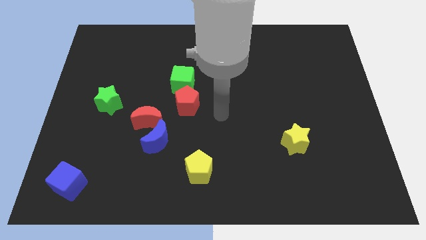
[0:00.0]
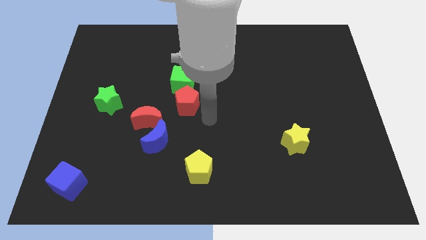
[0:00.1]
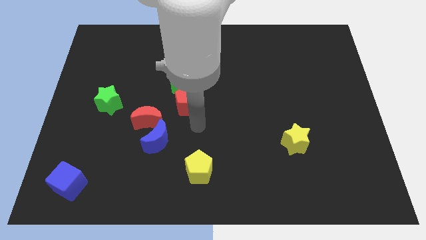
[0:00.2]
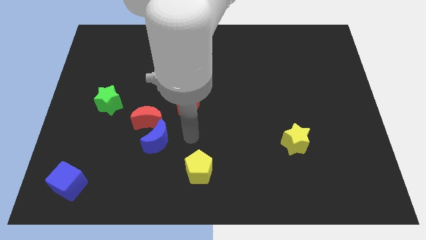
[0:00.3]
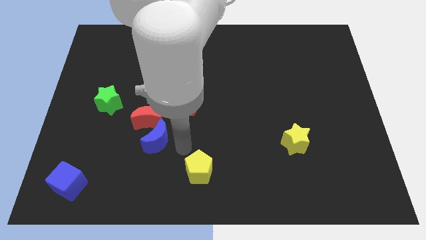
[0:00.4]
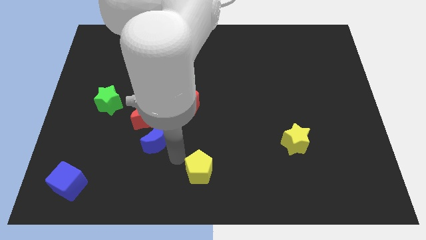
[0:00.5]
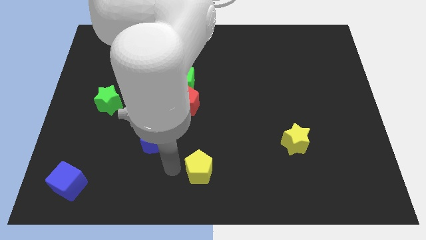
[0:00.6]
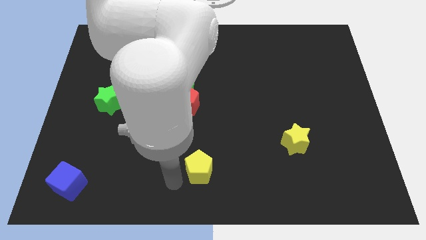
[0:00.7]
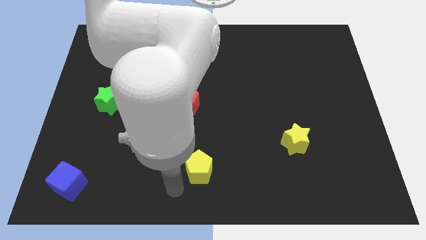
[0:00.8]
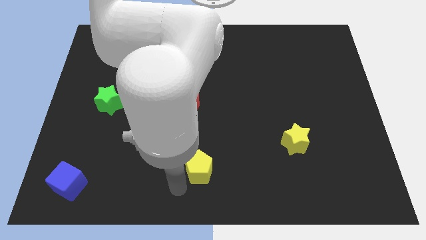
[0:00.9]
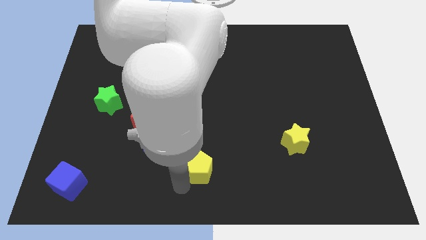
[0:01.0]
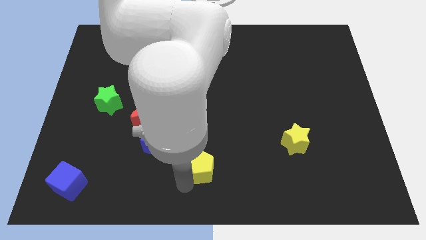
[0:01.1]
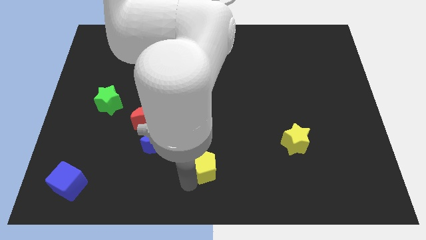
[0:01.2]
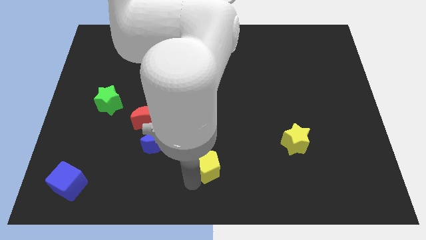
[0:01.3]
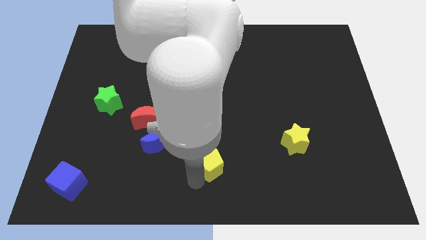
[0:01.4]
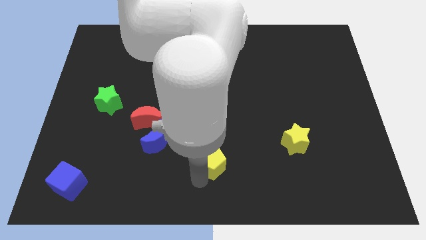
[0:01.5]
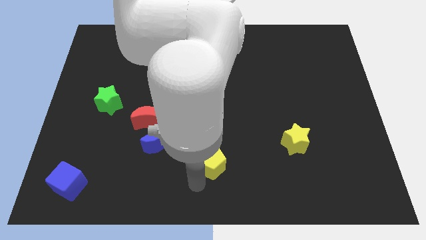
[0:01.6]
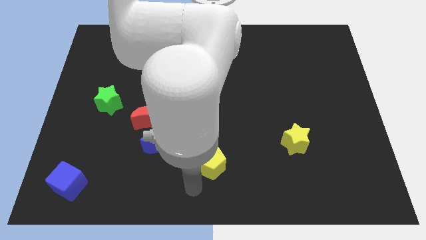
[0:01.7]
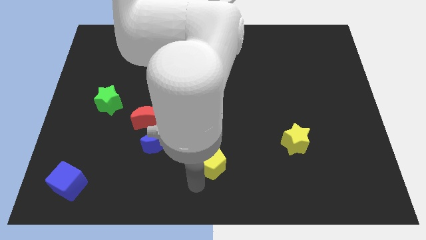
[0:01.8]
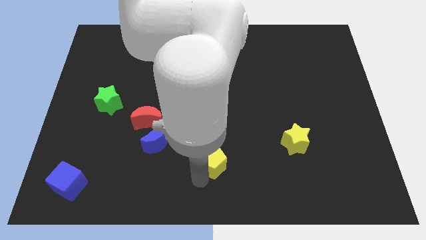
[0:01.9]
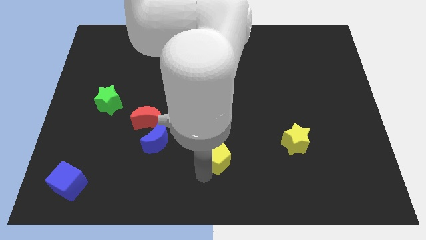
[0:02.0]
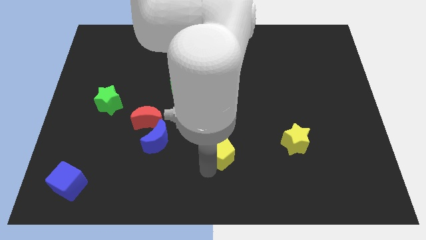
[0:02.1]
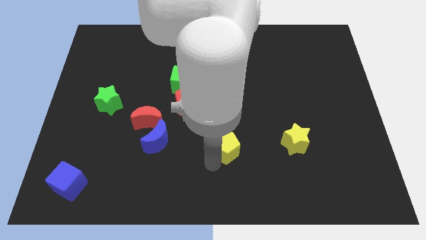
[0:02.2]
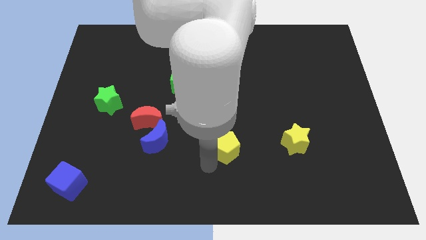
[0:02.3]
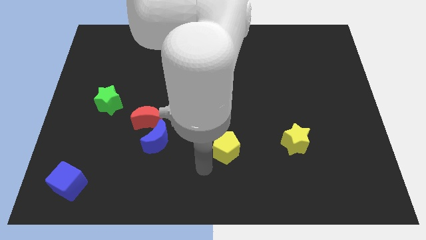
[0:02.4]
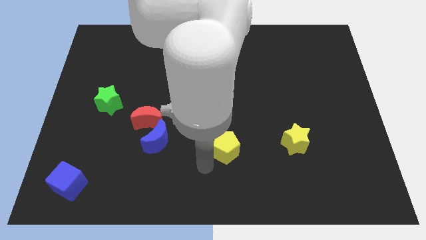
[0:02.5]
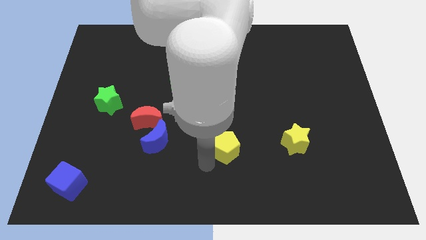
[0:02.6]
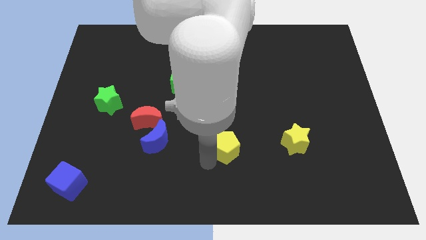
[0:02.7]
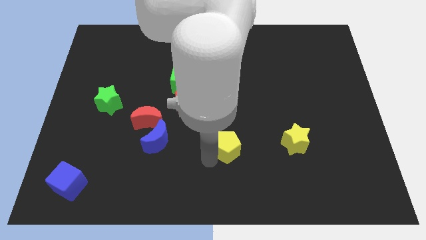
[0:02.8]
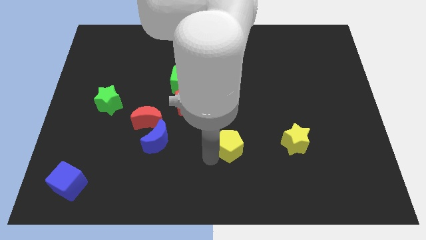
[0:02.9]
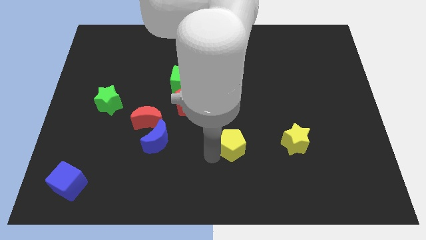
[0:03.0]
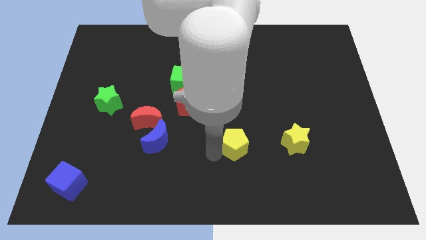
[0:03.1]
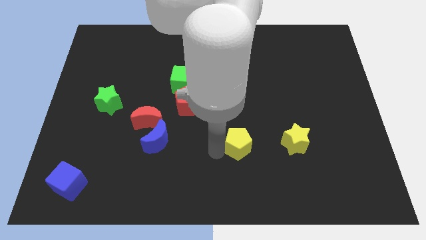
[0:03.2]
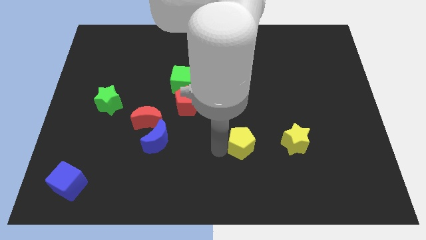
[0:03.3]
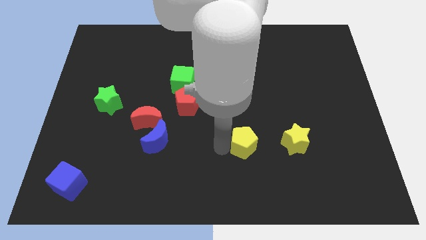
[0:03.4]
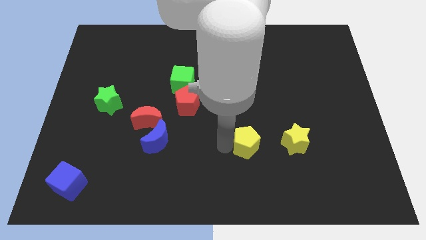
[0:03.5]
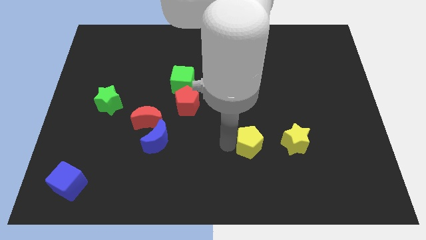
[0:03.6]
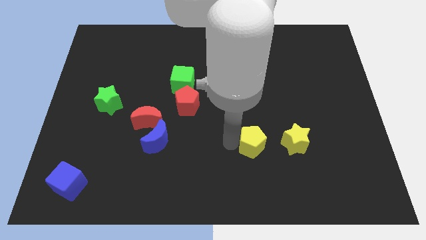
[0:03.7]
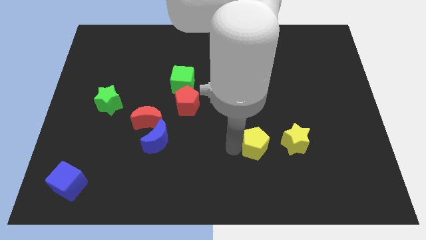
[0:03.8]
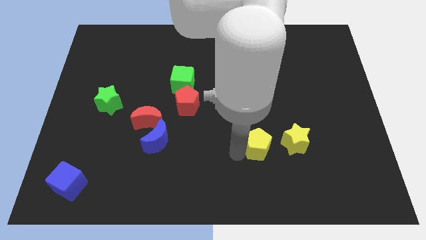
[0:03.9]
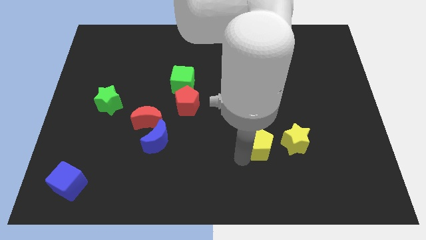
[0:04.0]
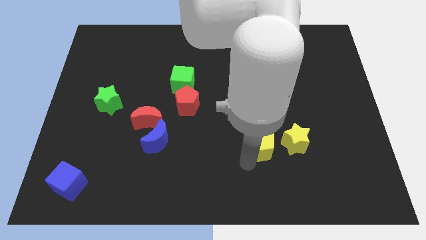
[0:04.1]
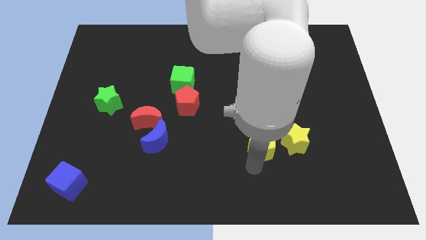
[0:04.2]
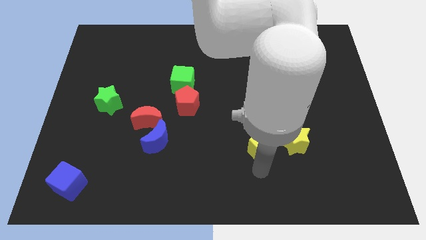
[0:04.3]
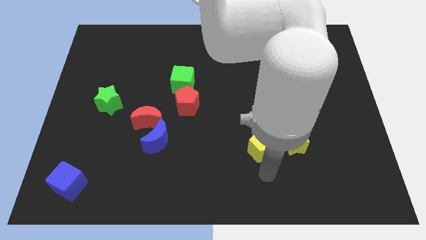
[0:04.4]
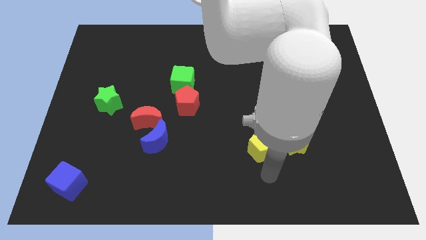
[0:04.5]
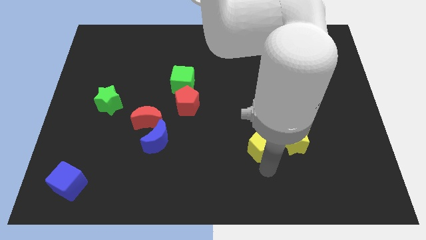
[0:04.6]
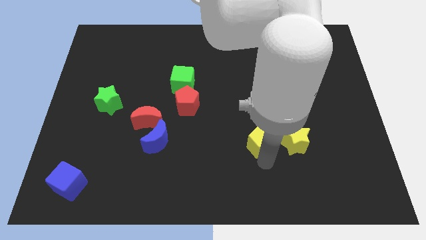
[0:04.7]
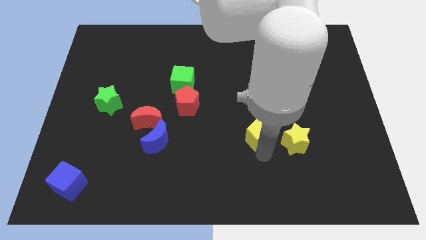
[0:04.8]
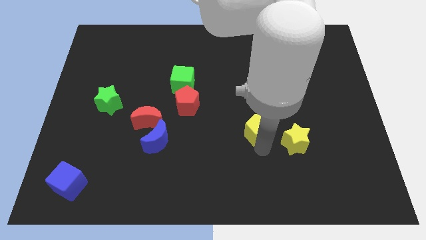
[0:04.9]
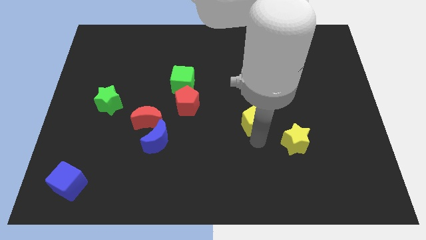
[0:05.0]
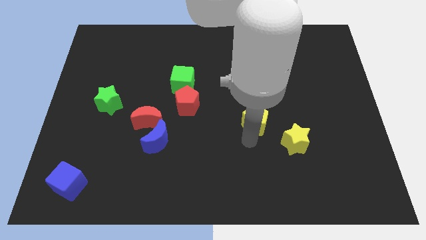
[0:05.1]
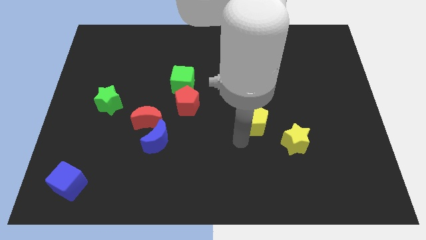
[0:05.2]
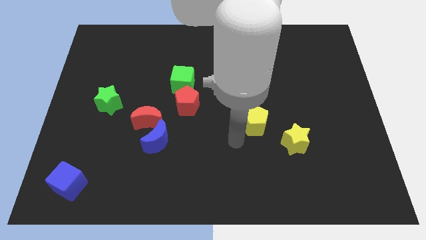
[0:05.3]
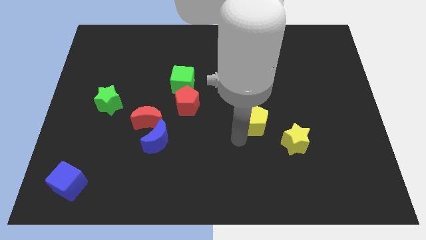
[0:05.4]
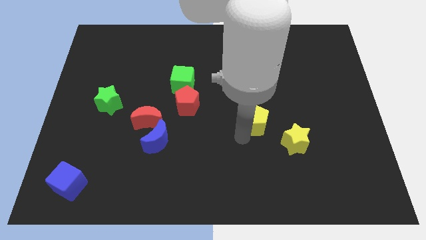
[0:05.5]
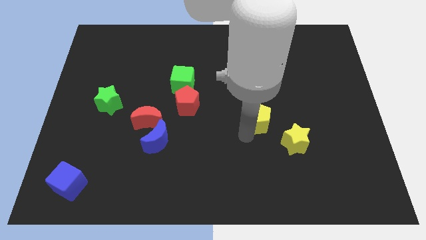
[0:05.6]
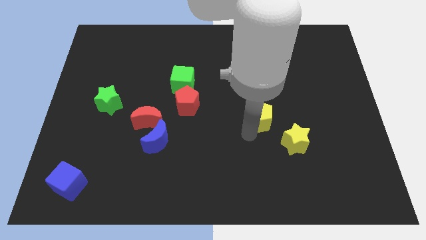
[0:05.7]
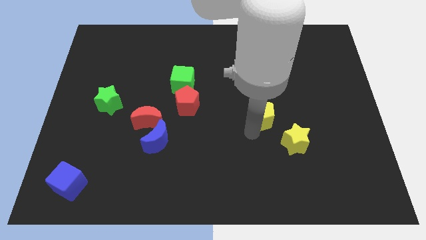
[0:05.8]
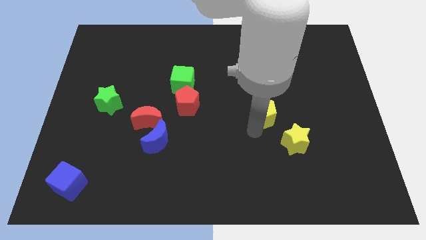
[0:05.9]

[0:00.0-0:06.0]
slide the yellow pentagon upwards and right diagonally

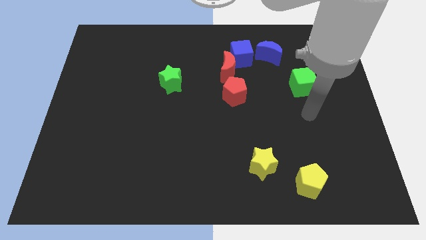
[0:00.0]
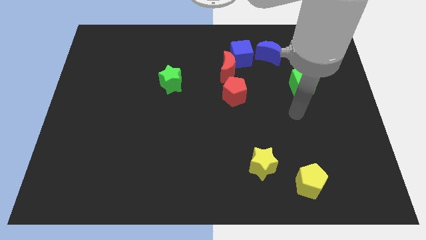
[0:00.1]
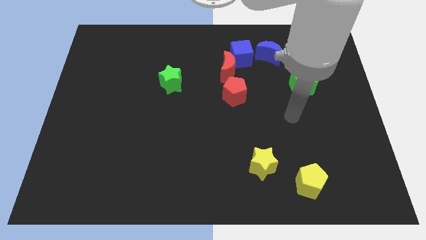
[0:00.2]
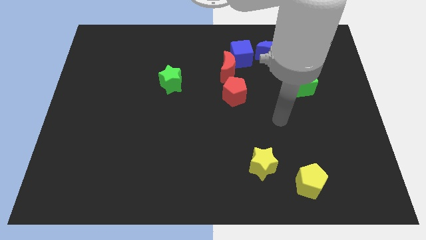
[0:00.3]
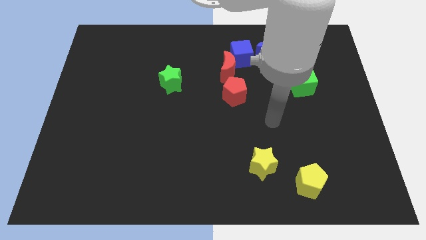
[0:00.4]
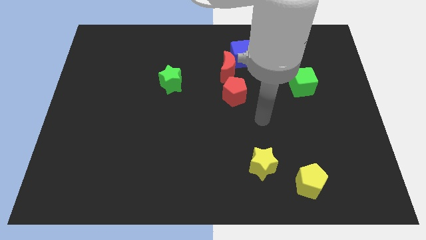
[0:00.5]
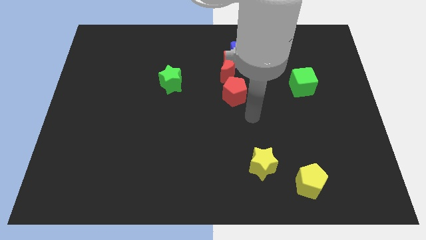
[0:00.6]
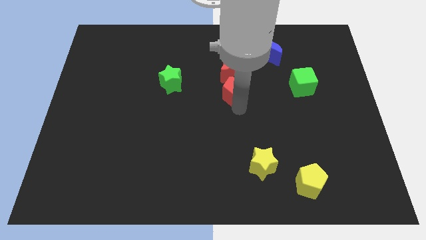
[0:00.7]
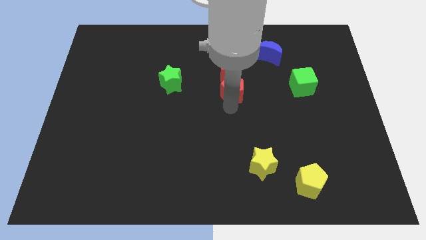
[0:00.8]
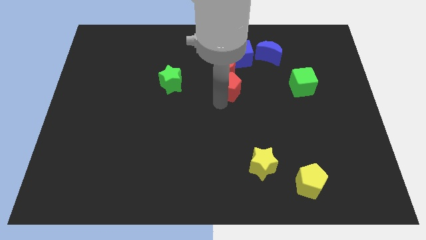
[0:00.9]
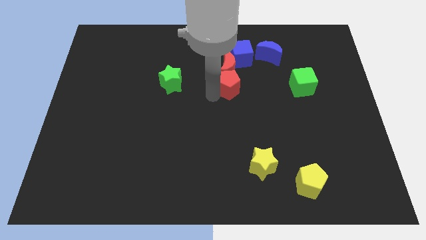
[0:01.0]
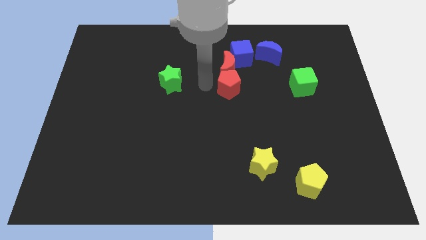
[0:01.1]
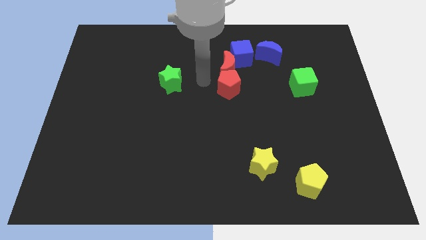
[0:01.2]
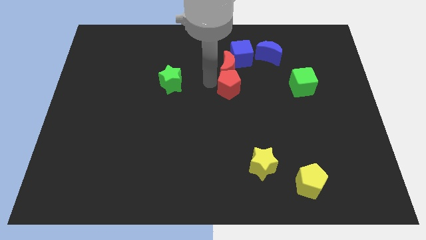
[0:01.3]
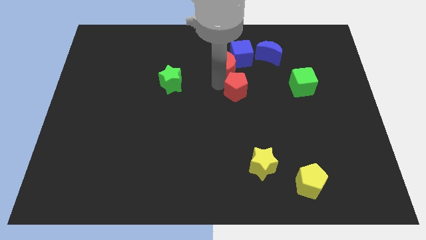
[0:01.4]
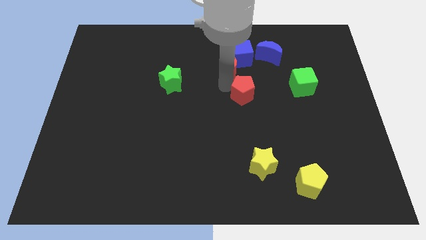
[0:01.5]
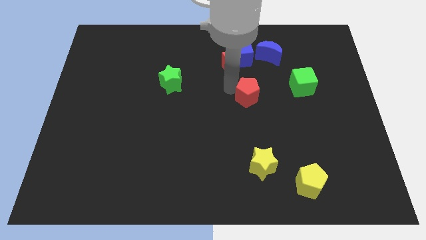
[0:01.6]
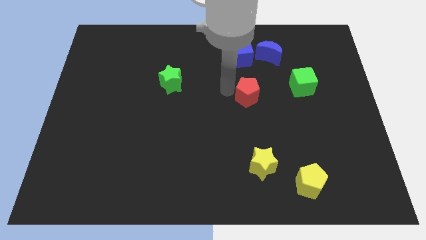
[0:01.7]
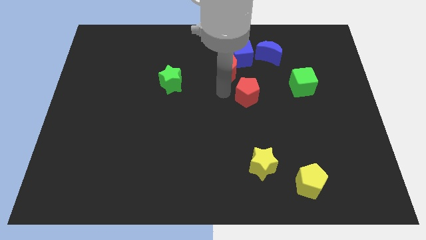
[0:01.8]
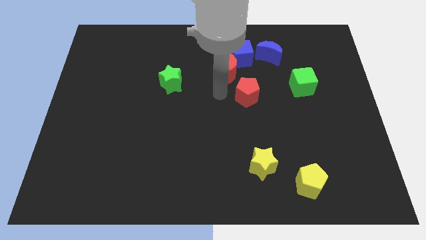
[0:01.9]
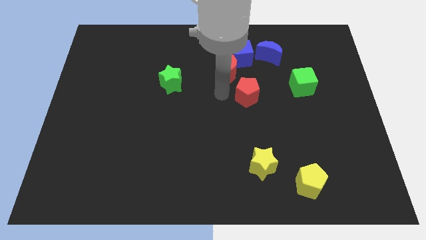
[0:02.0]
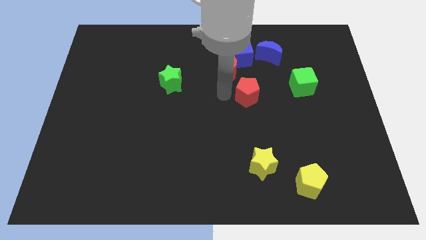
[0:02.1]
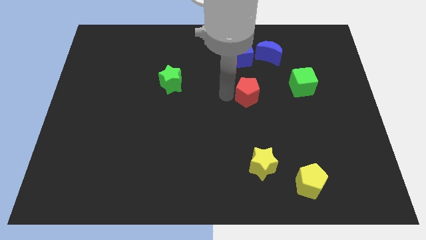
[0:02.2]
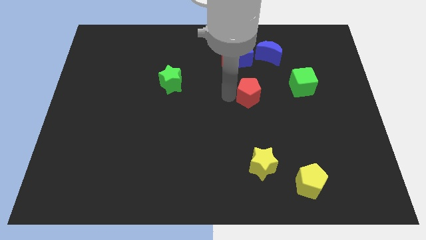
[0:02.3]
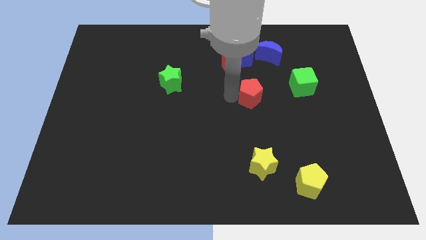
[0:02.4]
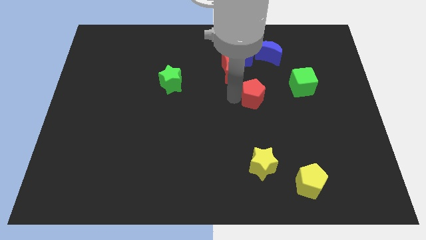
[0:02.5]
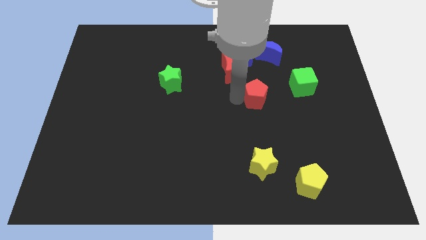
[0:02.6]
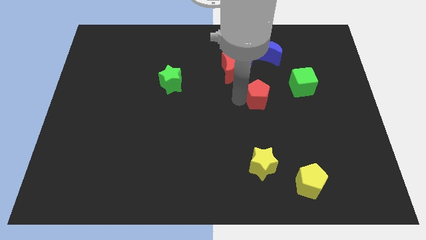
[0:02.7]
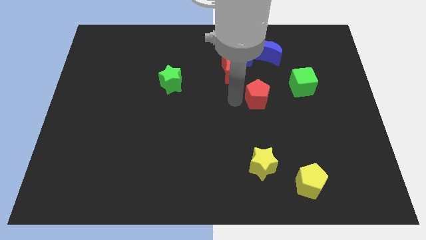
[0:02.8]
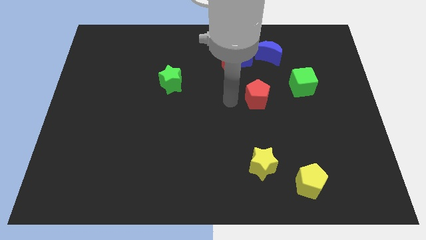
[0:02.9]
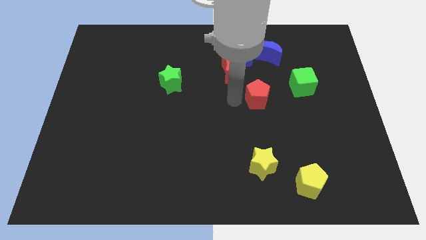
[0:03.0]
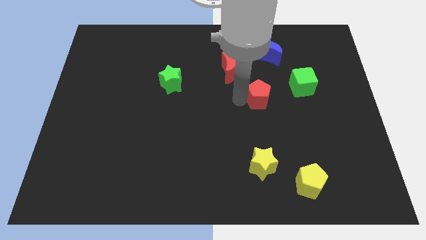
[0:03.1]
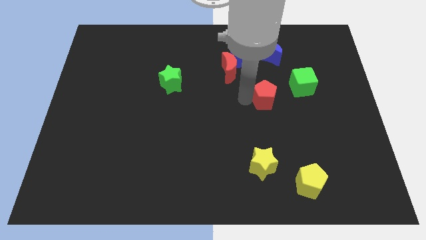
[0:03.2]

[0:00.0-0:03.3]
slightly move the red pentagon right
